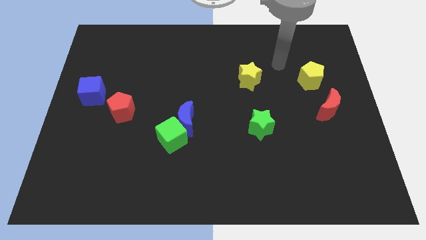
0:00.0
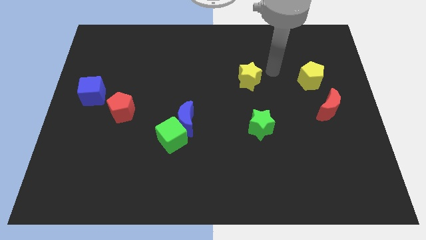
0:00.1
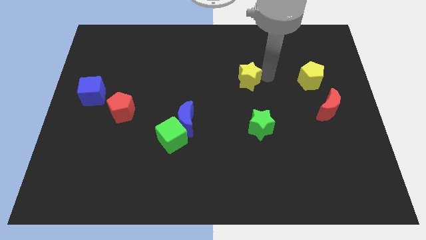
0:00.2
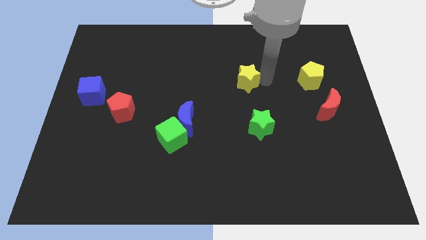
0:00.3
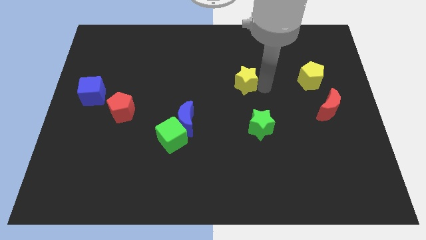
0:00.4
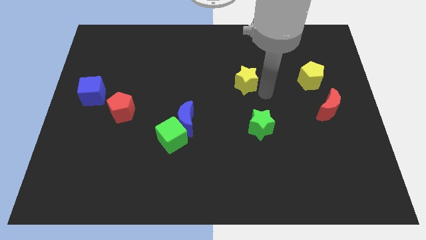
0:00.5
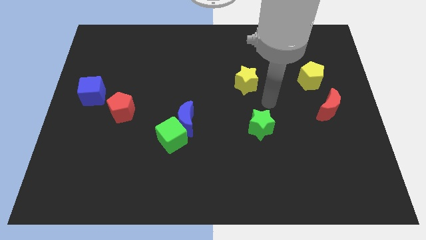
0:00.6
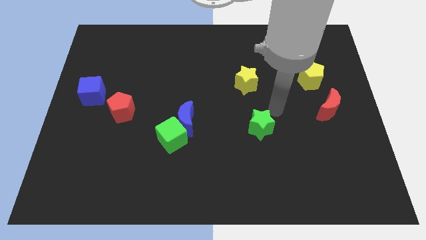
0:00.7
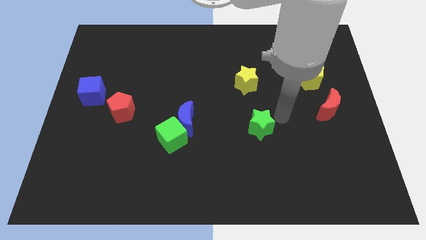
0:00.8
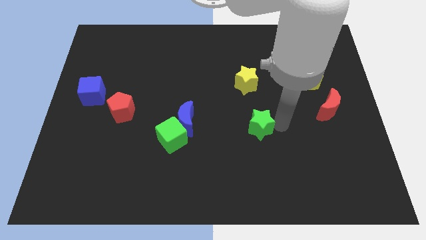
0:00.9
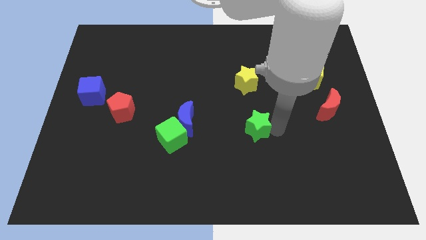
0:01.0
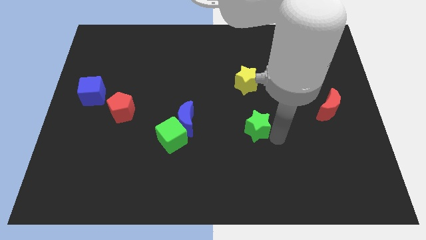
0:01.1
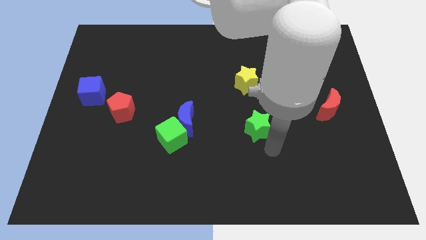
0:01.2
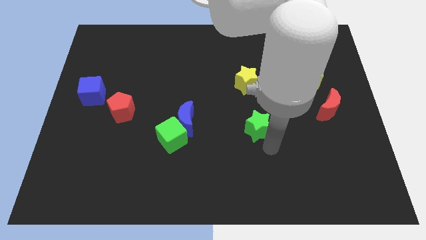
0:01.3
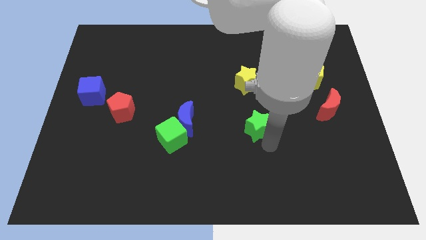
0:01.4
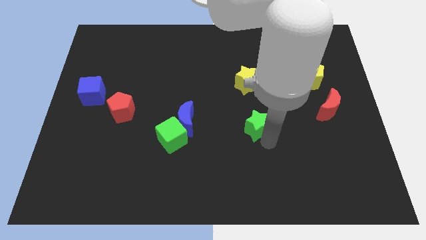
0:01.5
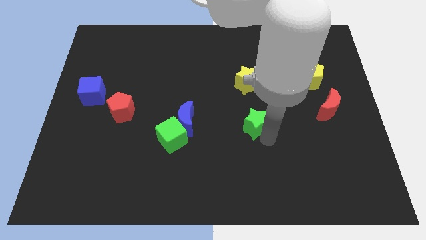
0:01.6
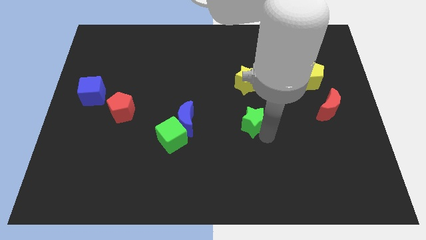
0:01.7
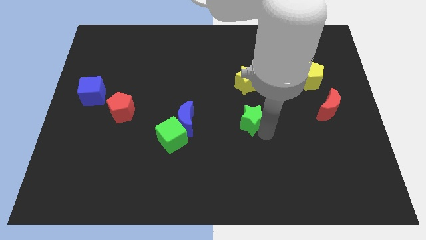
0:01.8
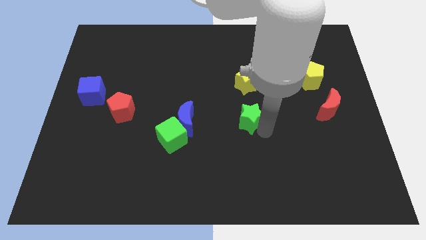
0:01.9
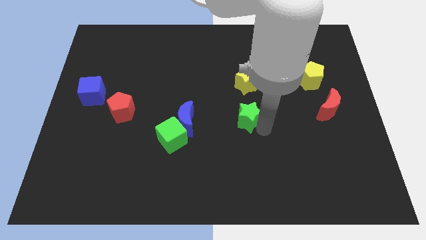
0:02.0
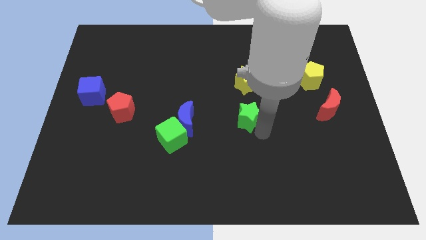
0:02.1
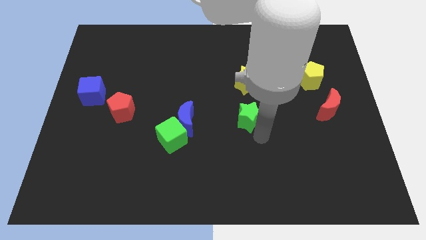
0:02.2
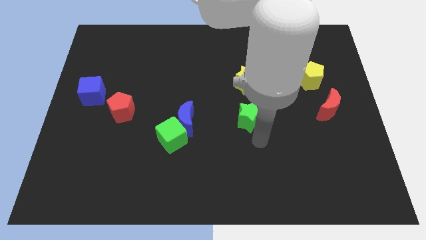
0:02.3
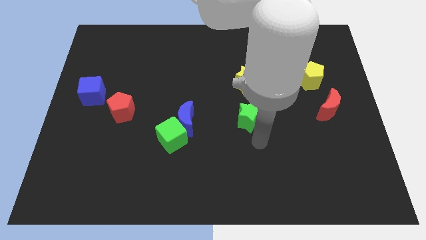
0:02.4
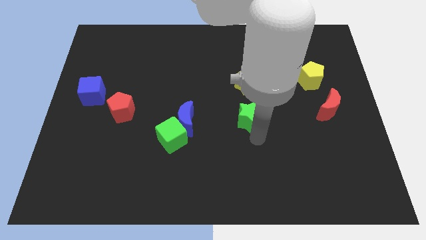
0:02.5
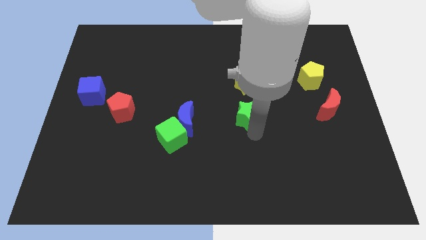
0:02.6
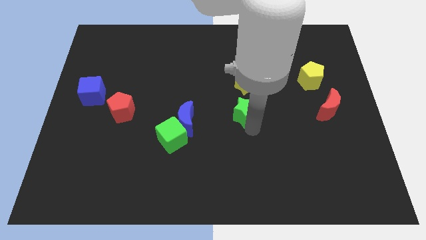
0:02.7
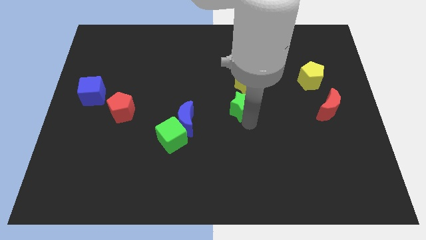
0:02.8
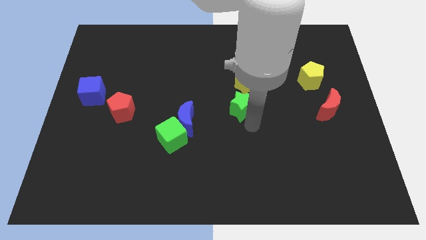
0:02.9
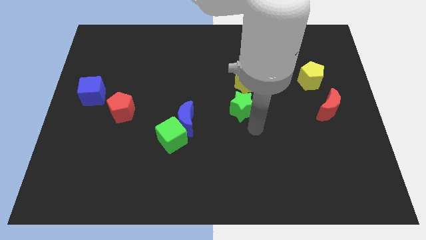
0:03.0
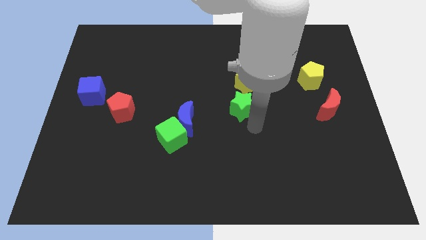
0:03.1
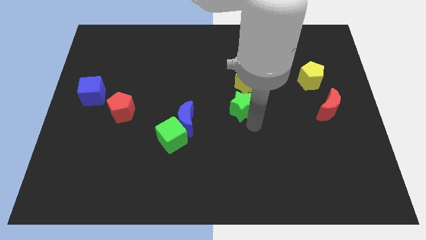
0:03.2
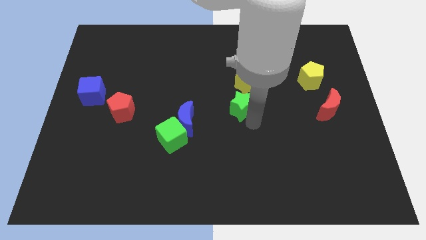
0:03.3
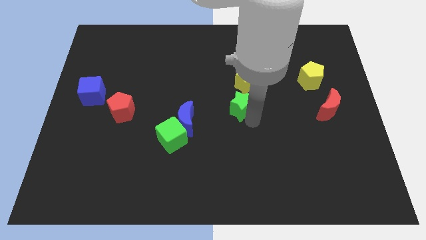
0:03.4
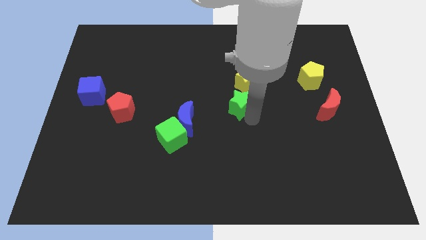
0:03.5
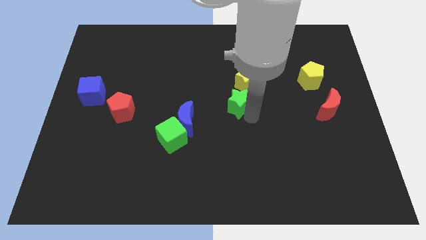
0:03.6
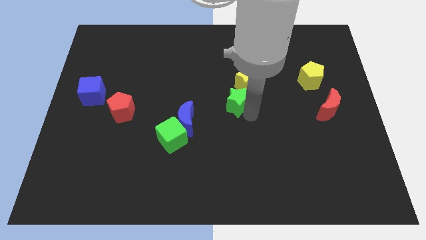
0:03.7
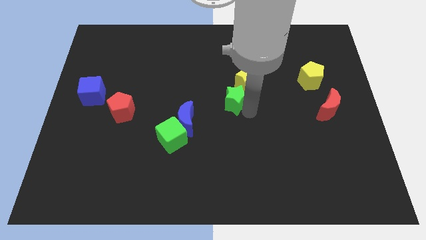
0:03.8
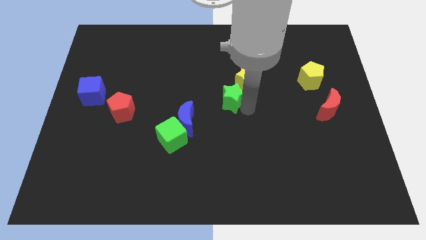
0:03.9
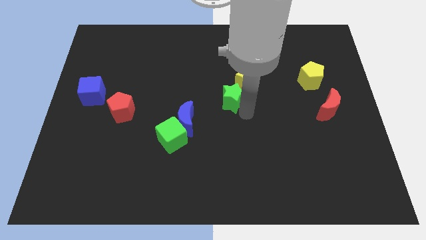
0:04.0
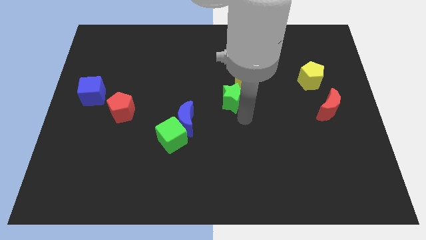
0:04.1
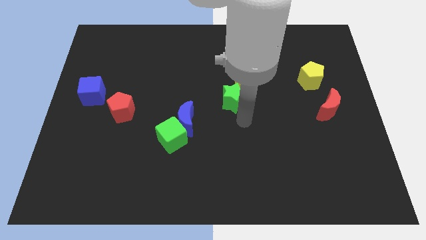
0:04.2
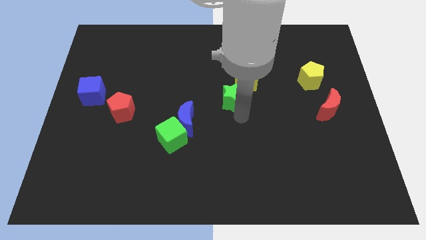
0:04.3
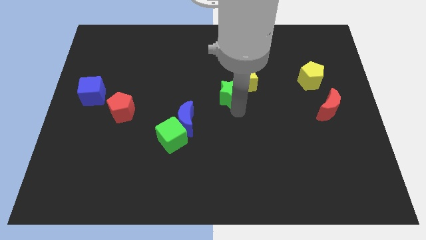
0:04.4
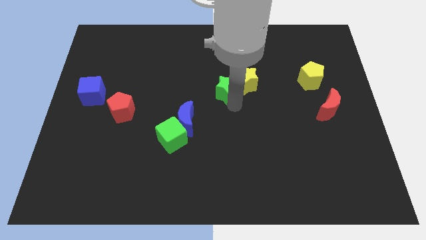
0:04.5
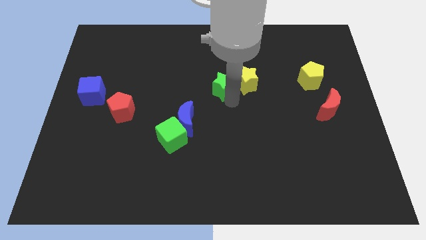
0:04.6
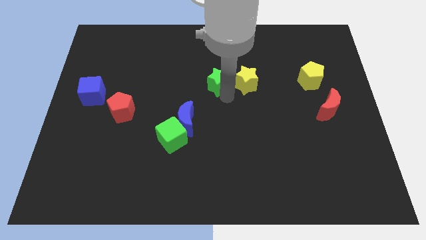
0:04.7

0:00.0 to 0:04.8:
push the green star diagonally up and to the left of the yellow star

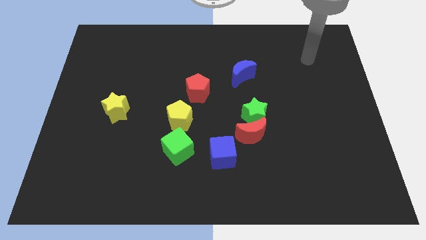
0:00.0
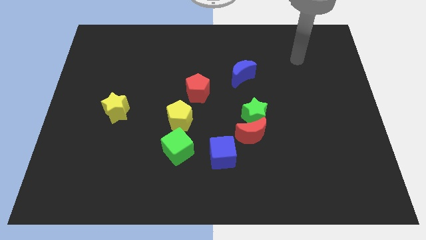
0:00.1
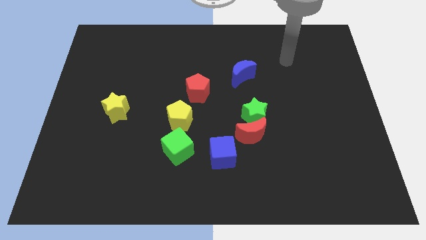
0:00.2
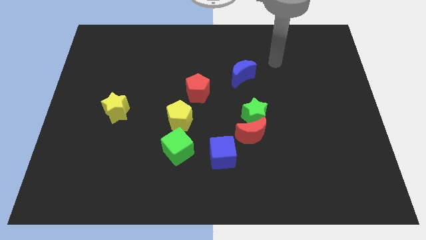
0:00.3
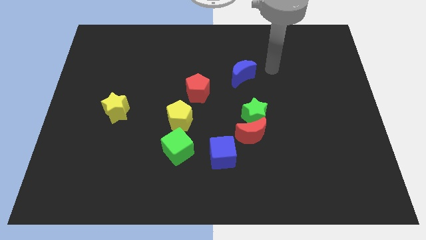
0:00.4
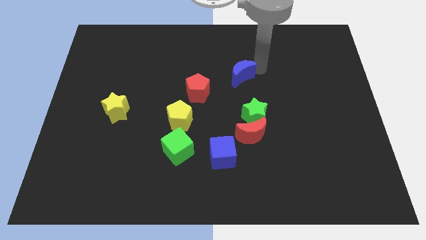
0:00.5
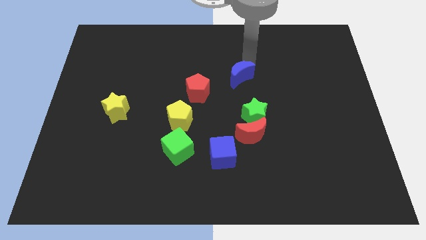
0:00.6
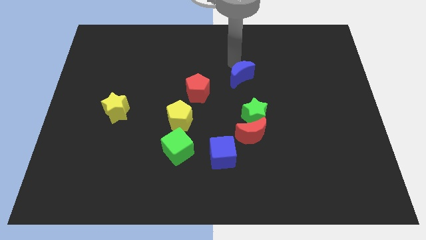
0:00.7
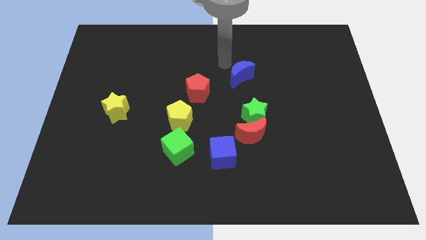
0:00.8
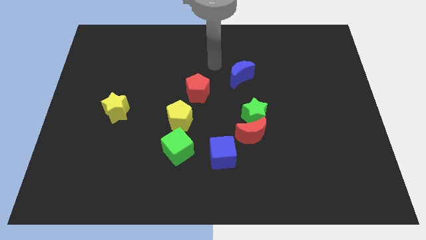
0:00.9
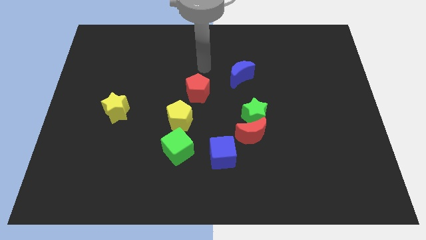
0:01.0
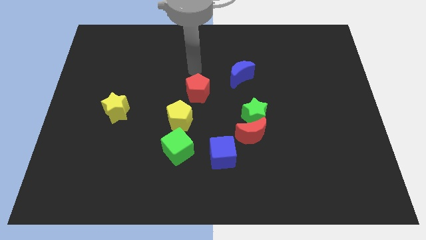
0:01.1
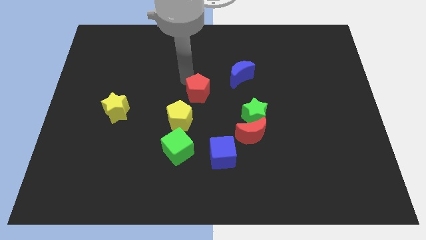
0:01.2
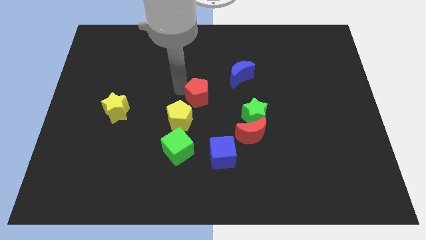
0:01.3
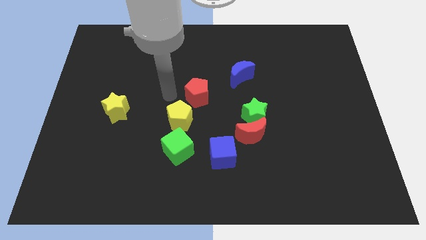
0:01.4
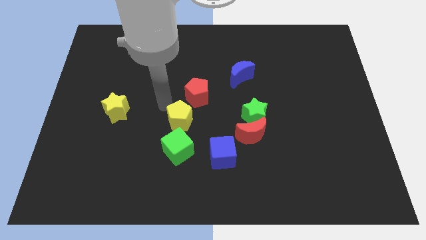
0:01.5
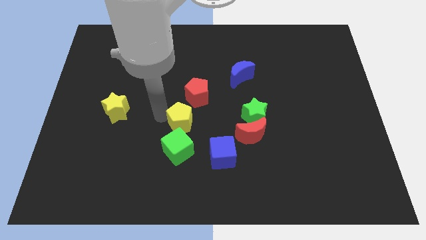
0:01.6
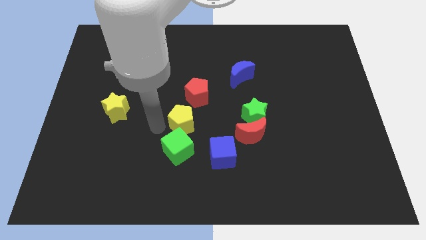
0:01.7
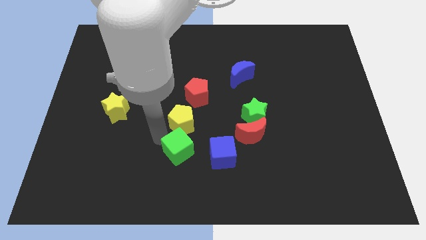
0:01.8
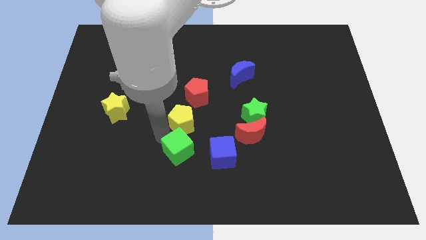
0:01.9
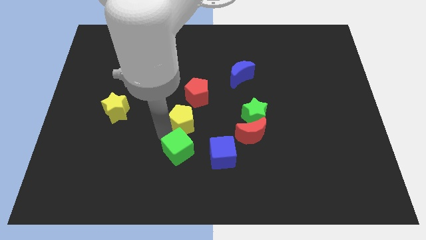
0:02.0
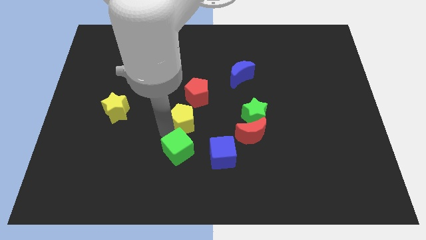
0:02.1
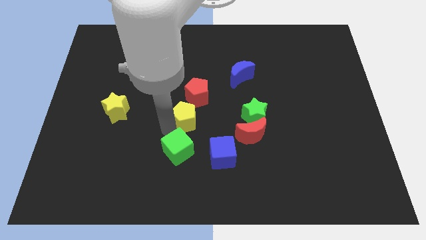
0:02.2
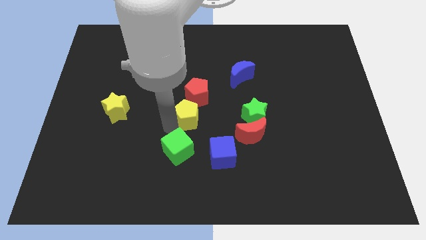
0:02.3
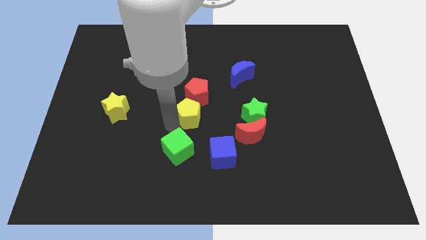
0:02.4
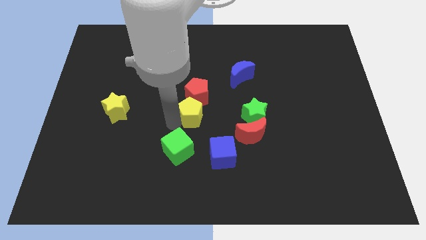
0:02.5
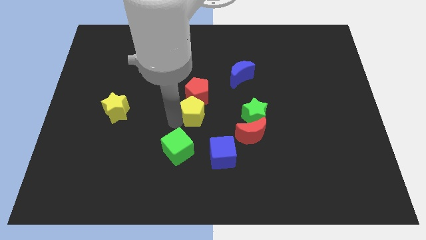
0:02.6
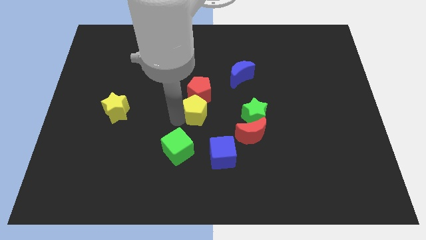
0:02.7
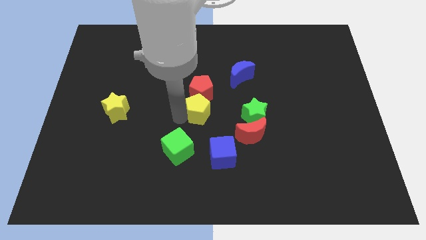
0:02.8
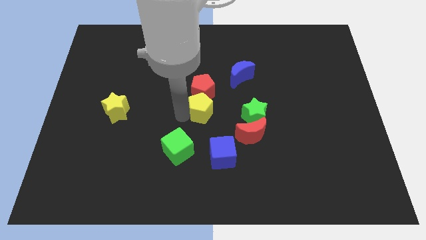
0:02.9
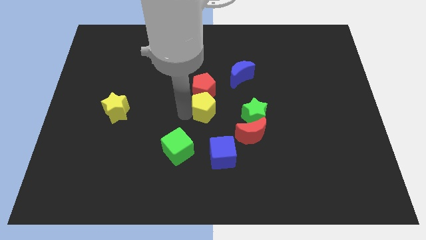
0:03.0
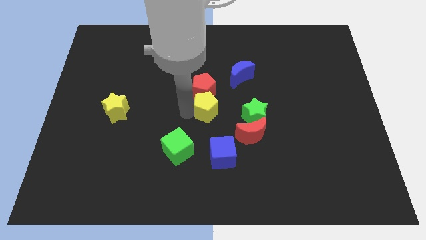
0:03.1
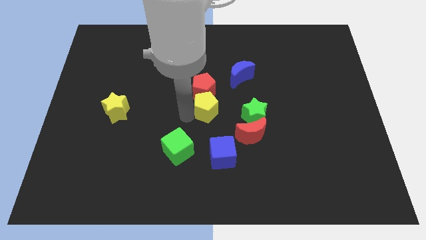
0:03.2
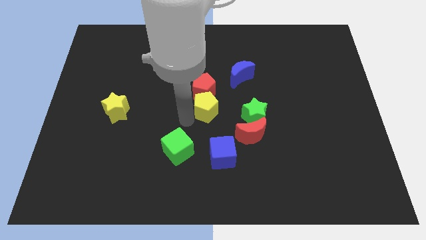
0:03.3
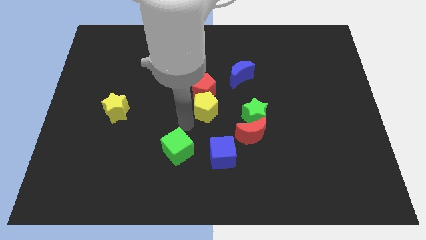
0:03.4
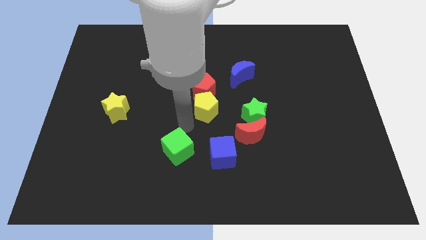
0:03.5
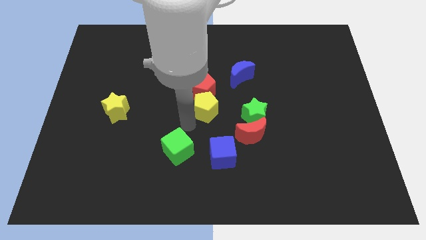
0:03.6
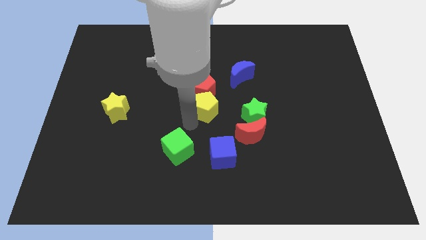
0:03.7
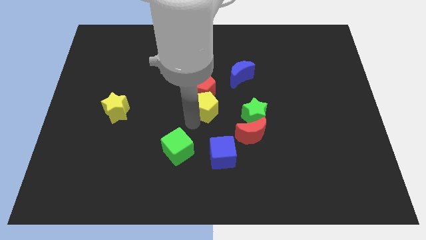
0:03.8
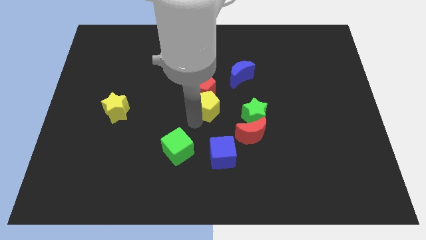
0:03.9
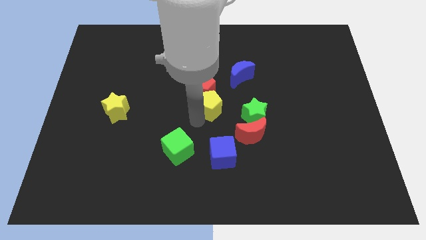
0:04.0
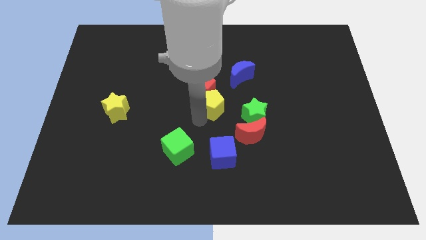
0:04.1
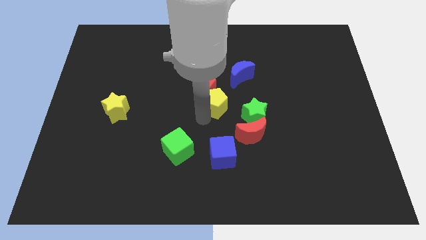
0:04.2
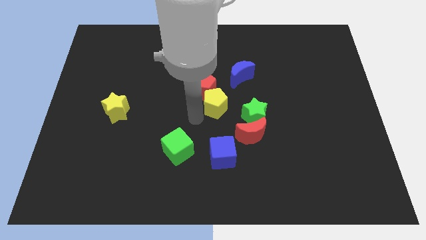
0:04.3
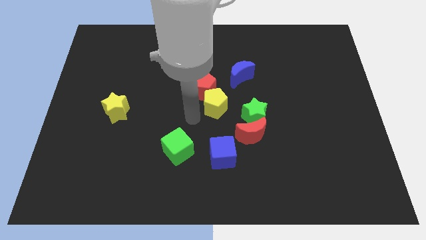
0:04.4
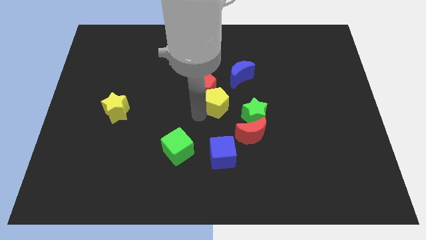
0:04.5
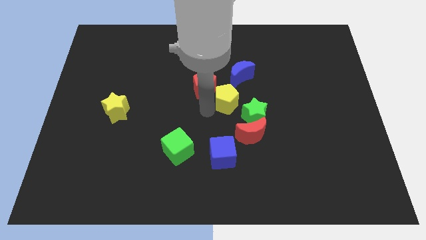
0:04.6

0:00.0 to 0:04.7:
slide the yellow pentagon right of the red pentagon
